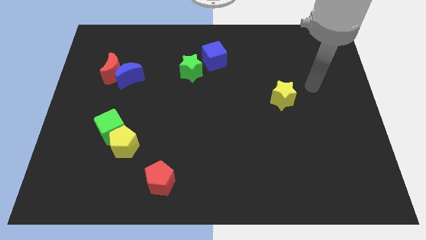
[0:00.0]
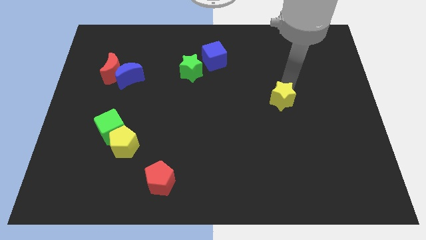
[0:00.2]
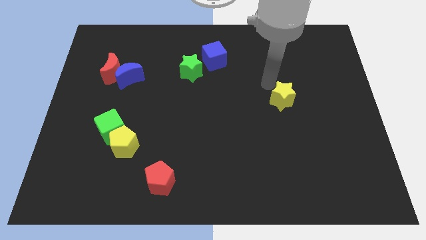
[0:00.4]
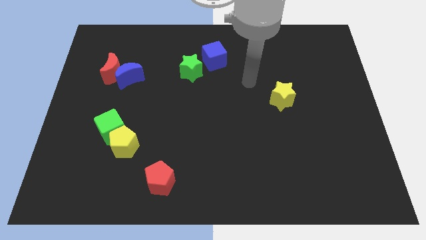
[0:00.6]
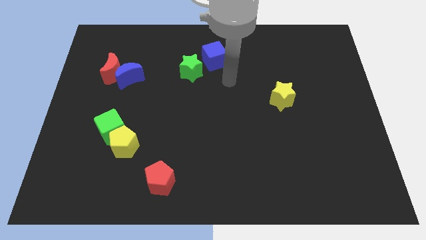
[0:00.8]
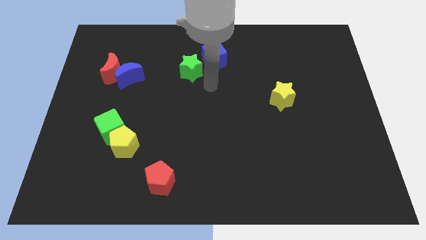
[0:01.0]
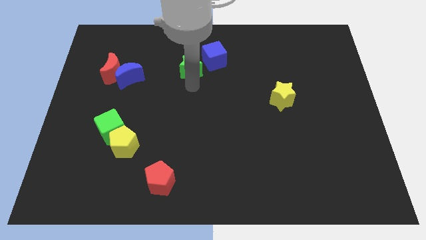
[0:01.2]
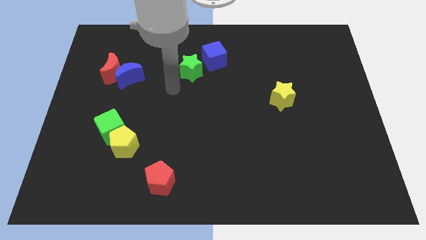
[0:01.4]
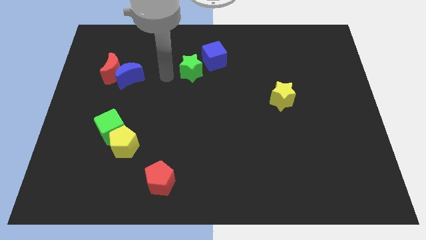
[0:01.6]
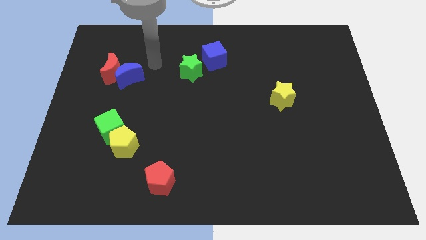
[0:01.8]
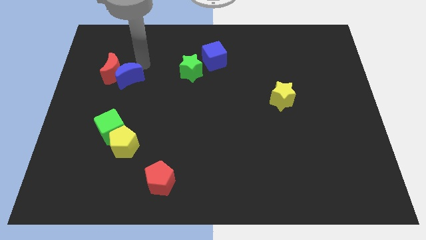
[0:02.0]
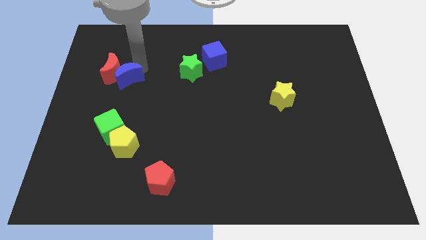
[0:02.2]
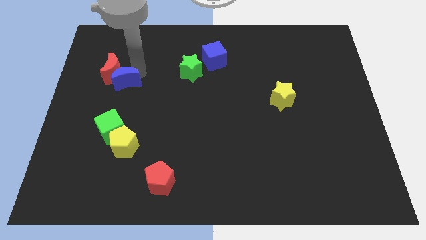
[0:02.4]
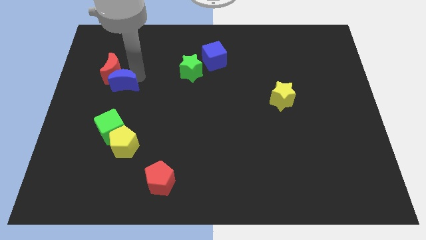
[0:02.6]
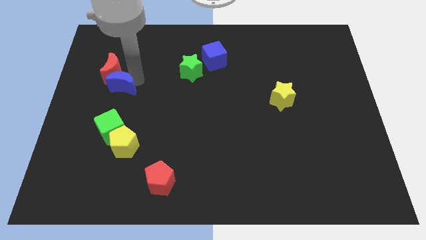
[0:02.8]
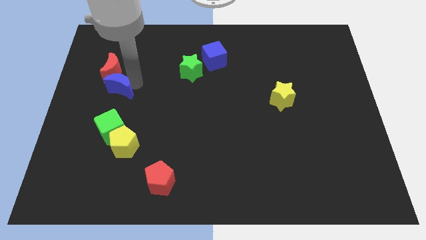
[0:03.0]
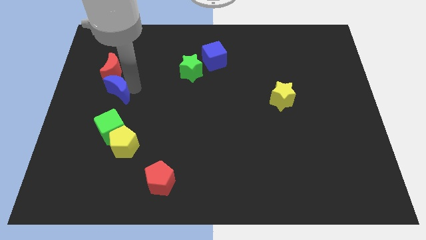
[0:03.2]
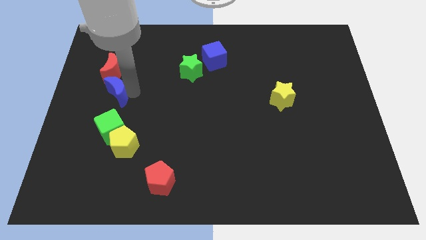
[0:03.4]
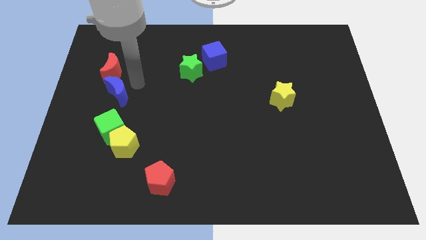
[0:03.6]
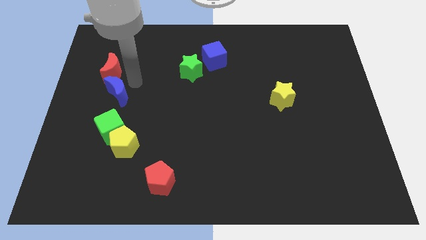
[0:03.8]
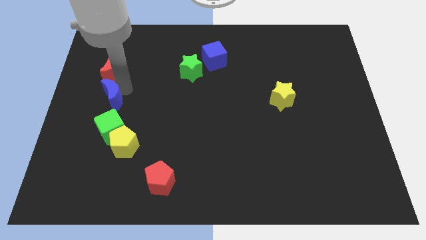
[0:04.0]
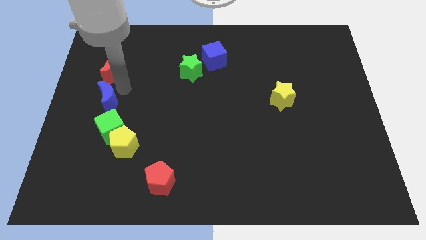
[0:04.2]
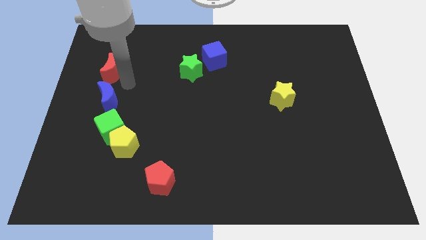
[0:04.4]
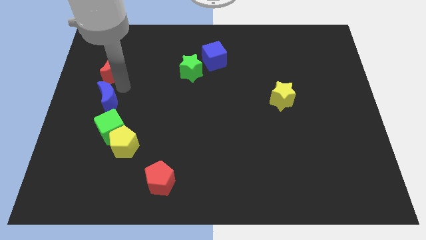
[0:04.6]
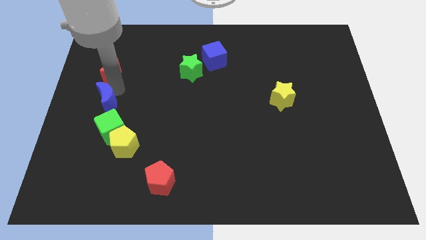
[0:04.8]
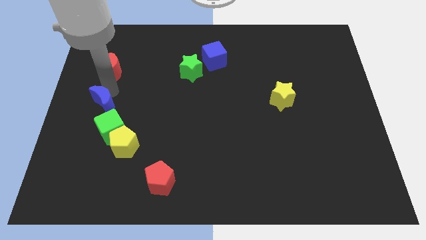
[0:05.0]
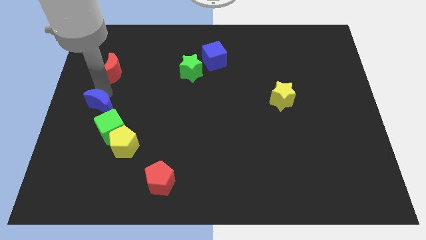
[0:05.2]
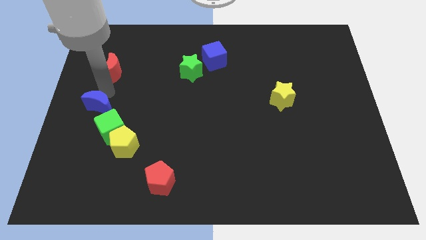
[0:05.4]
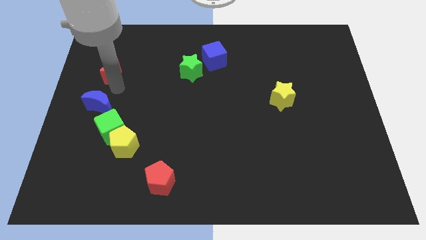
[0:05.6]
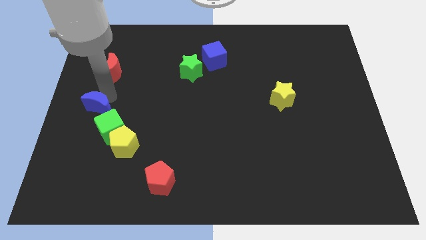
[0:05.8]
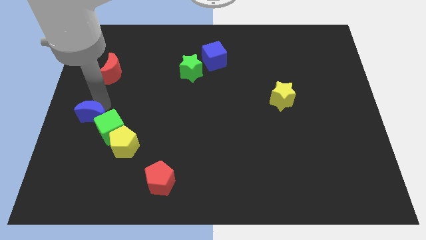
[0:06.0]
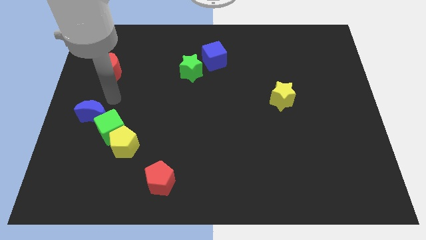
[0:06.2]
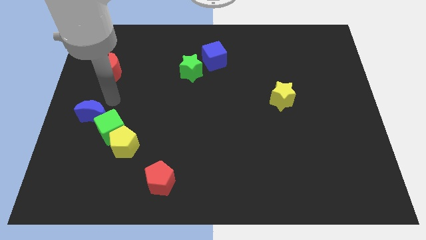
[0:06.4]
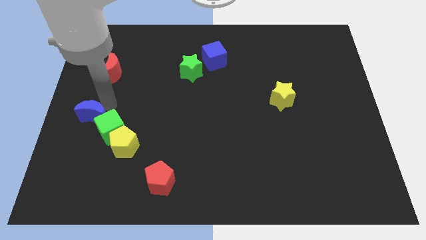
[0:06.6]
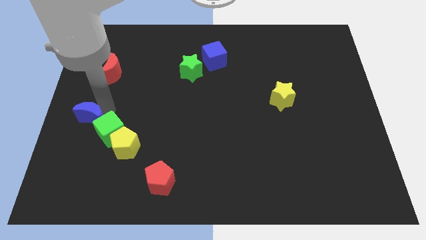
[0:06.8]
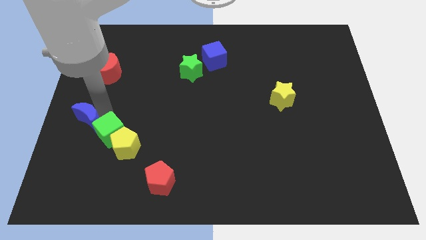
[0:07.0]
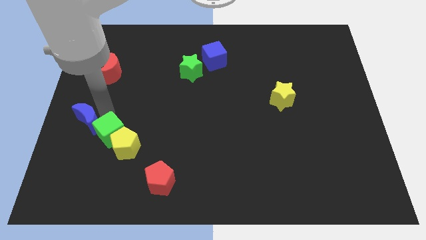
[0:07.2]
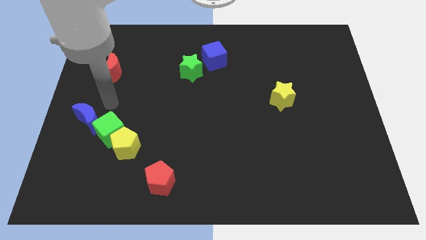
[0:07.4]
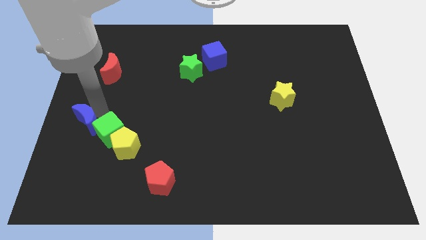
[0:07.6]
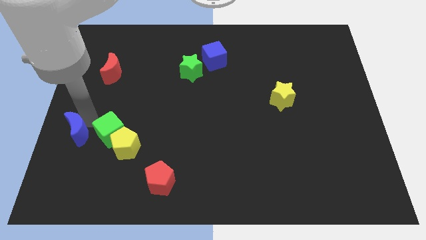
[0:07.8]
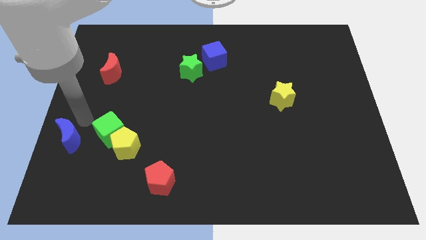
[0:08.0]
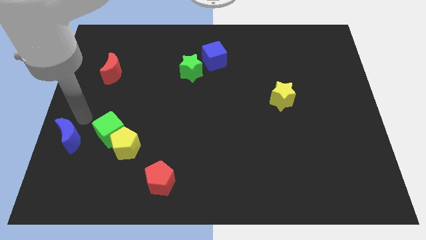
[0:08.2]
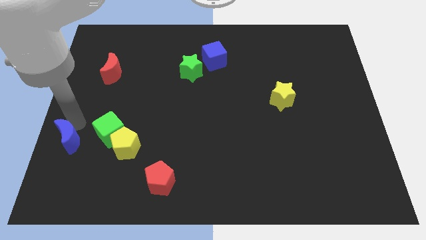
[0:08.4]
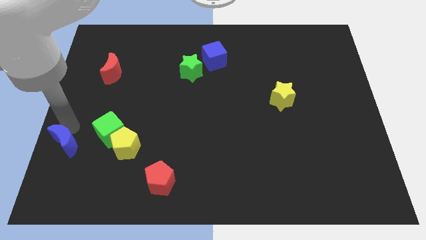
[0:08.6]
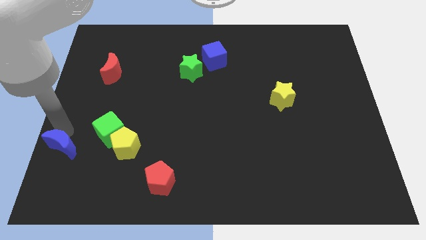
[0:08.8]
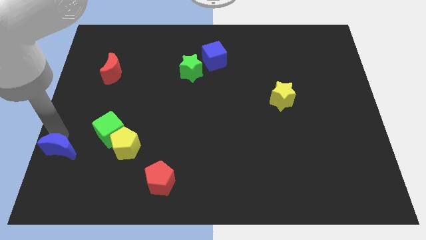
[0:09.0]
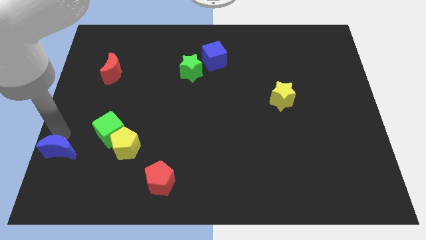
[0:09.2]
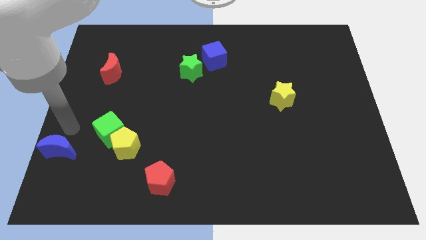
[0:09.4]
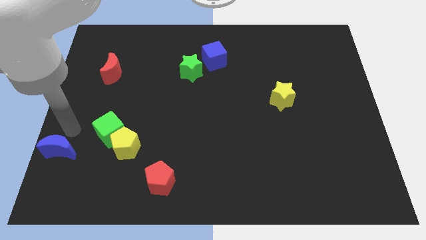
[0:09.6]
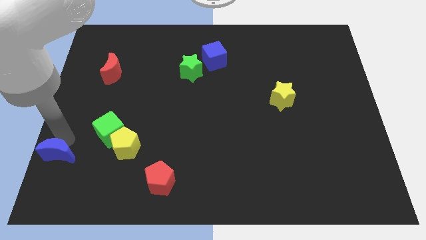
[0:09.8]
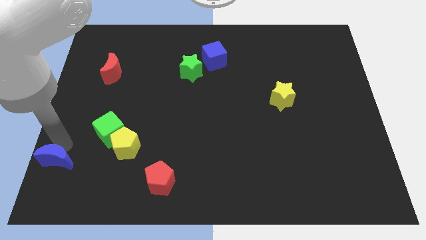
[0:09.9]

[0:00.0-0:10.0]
slide the blue moon to the lower left corner

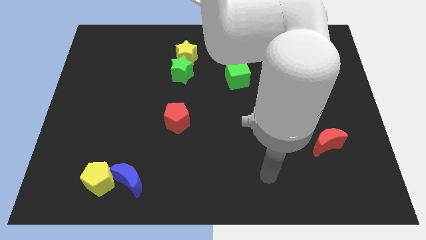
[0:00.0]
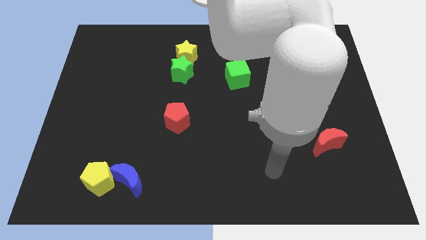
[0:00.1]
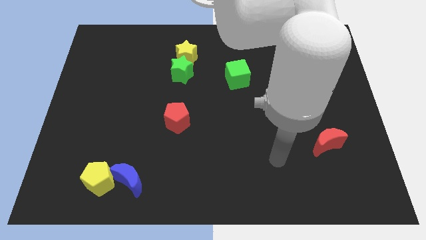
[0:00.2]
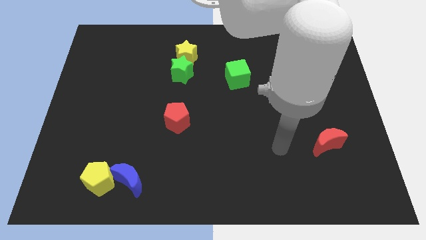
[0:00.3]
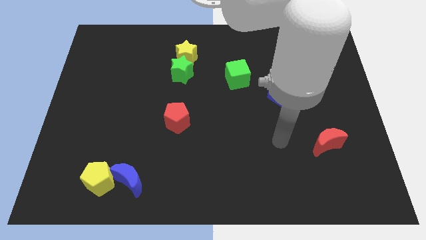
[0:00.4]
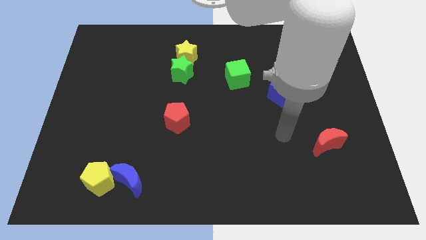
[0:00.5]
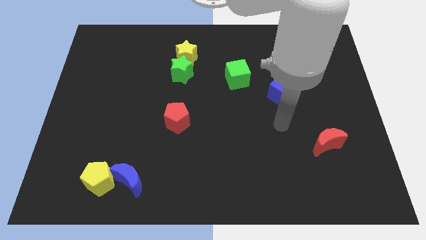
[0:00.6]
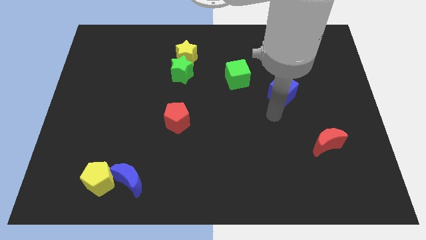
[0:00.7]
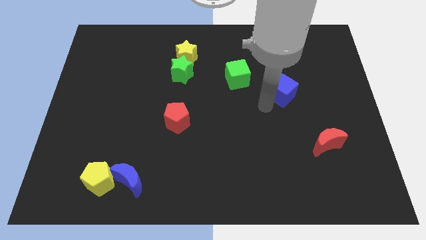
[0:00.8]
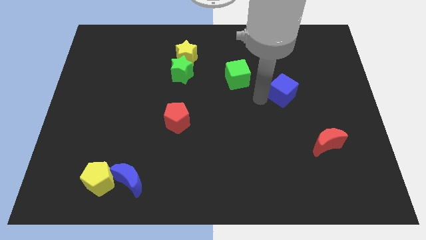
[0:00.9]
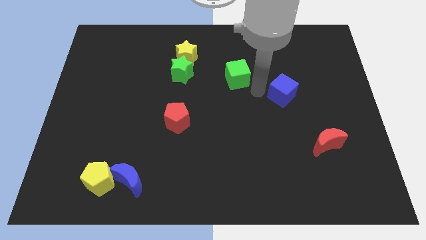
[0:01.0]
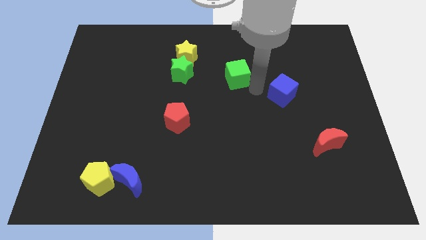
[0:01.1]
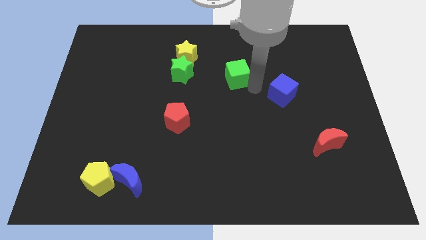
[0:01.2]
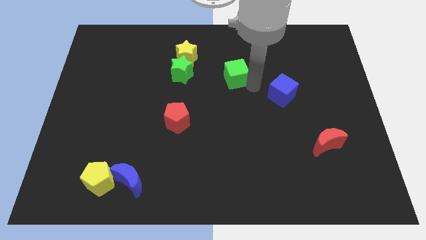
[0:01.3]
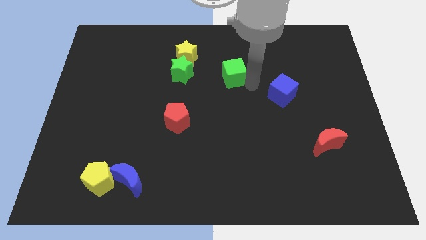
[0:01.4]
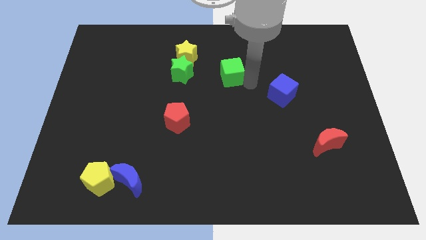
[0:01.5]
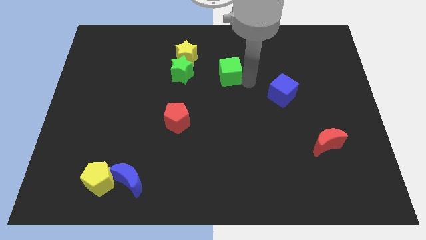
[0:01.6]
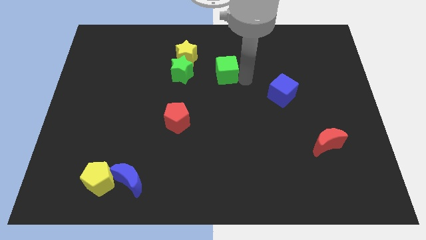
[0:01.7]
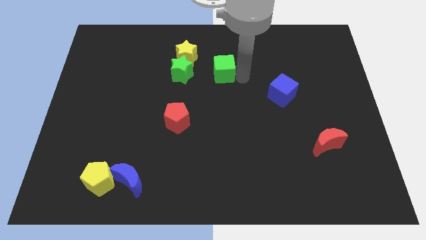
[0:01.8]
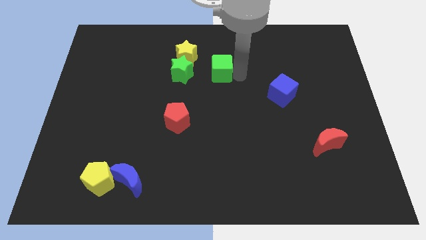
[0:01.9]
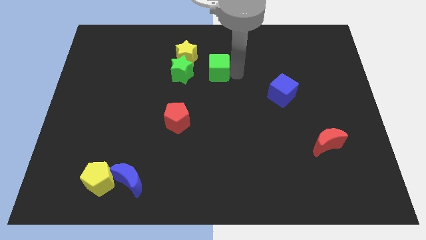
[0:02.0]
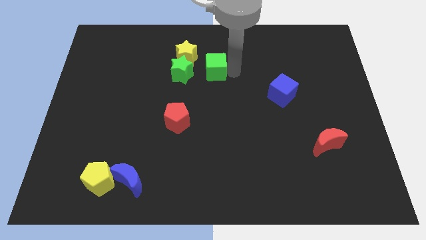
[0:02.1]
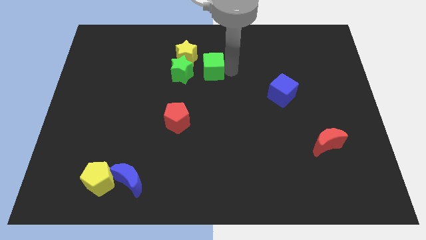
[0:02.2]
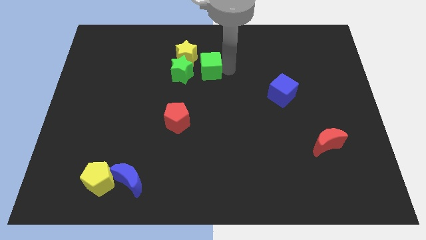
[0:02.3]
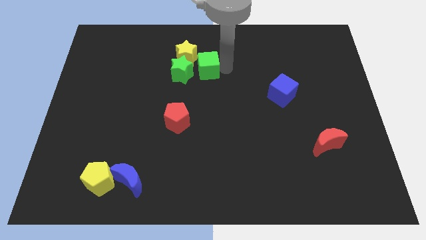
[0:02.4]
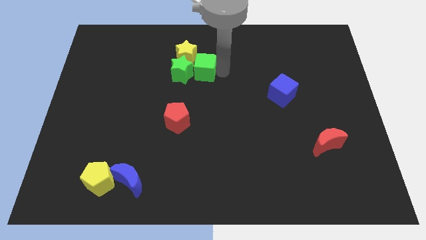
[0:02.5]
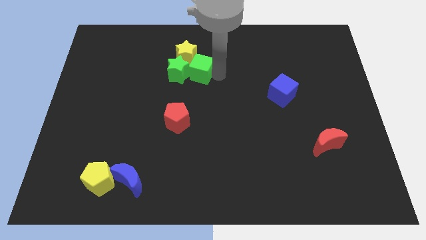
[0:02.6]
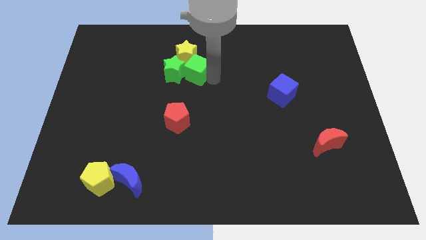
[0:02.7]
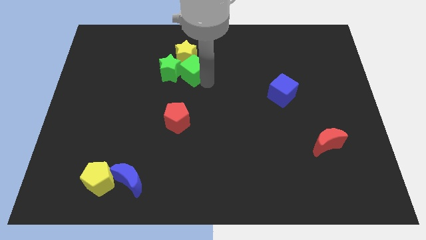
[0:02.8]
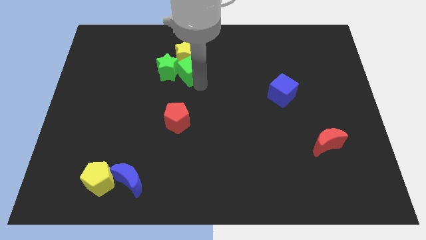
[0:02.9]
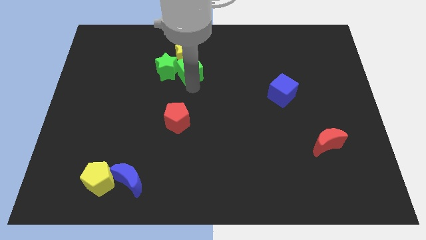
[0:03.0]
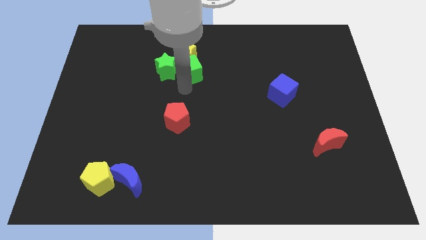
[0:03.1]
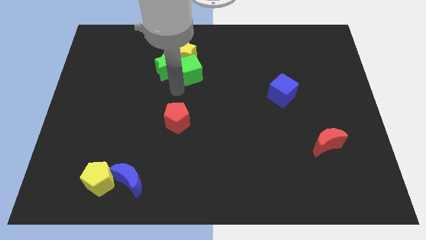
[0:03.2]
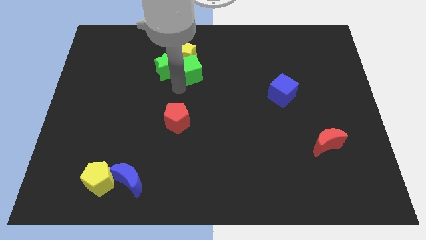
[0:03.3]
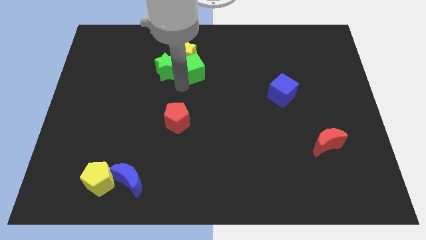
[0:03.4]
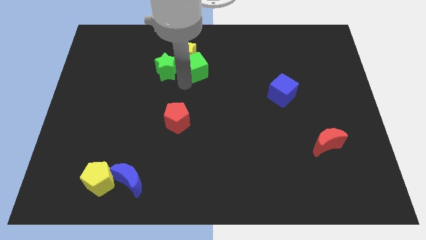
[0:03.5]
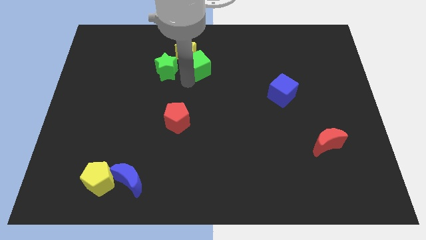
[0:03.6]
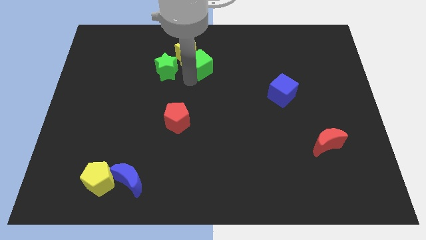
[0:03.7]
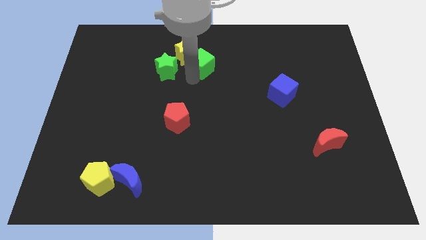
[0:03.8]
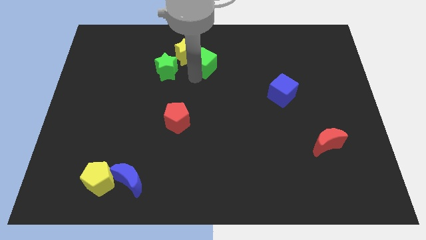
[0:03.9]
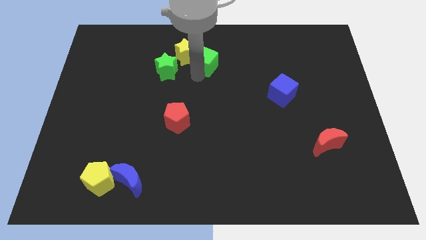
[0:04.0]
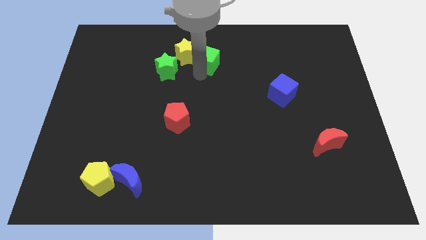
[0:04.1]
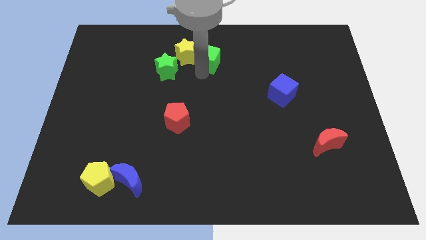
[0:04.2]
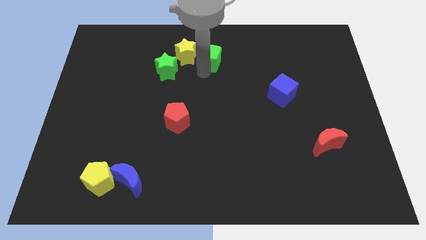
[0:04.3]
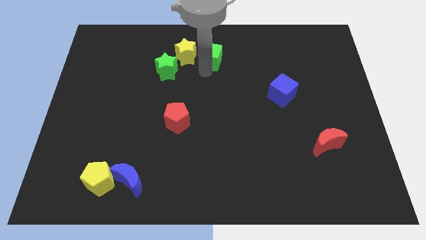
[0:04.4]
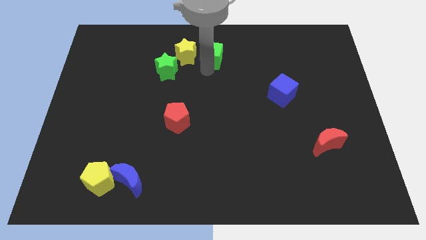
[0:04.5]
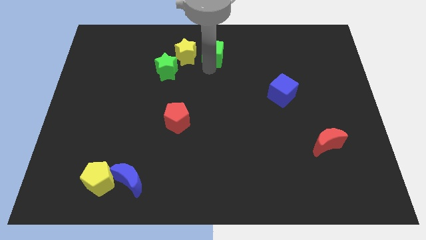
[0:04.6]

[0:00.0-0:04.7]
slide the green cube to the towards your base
